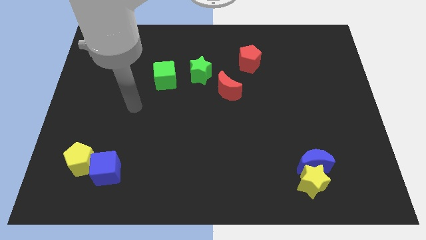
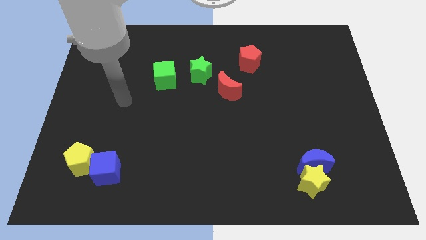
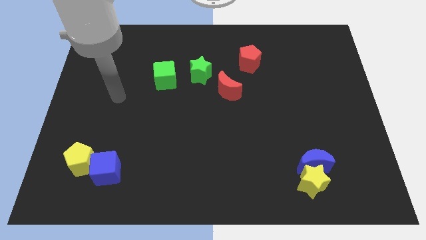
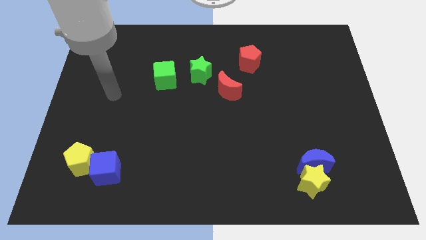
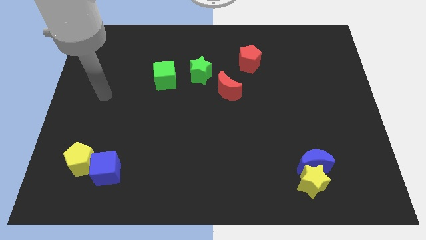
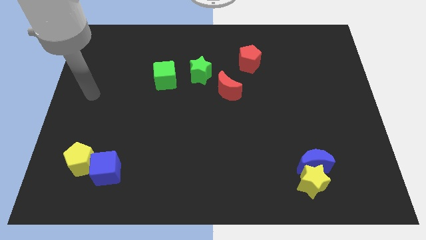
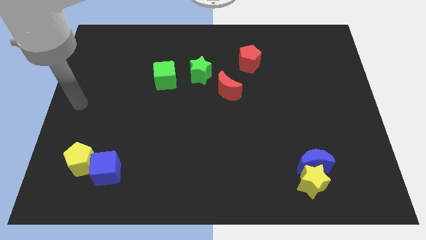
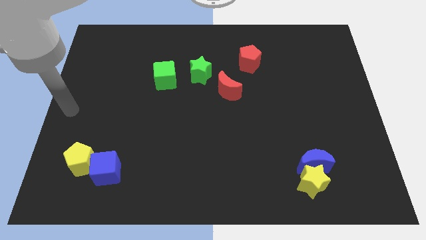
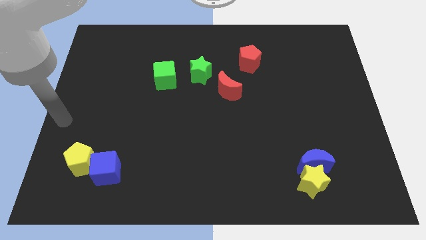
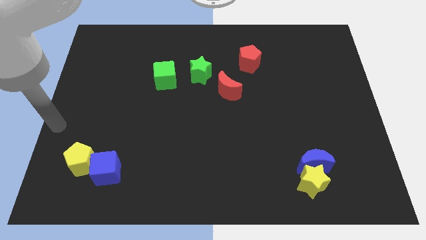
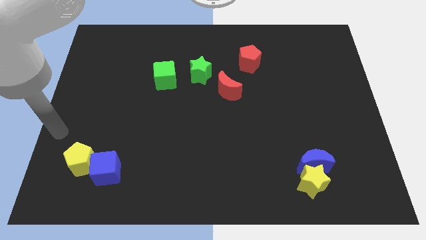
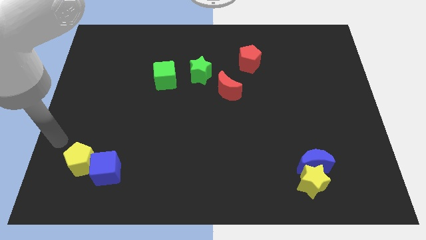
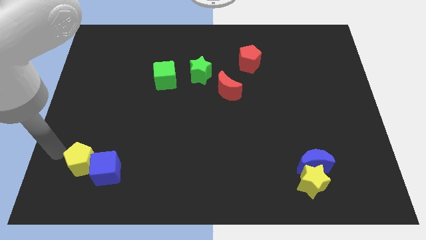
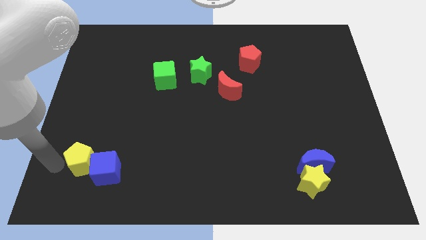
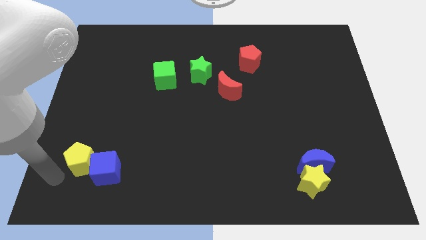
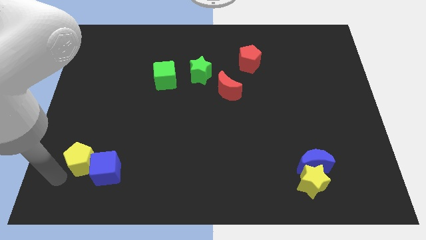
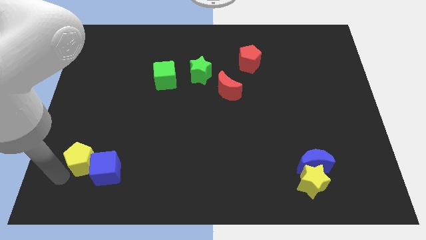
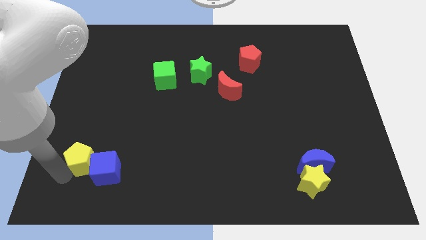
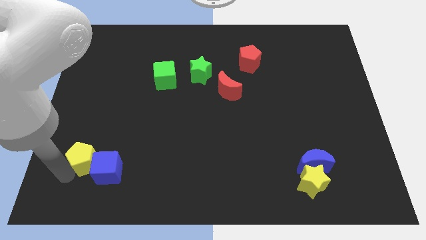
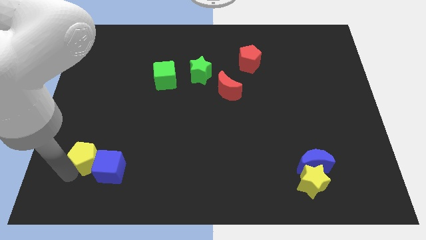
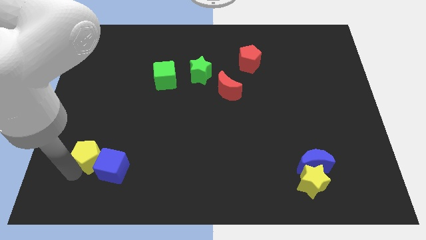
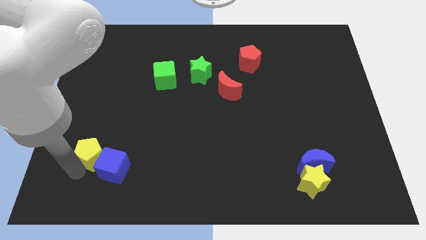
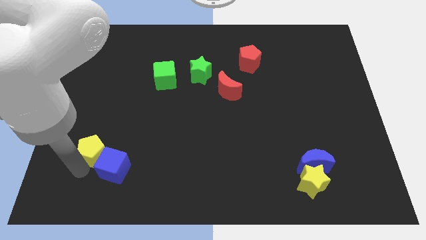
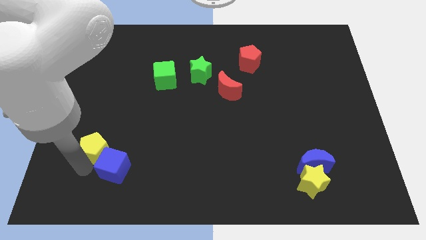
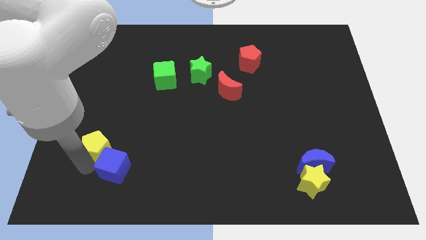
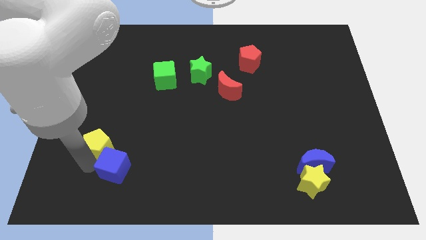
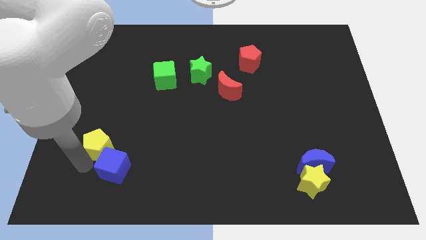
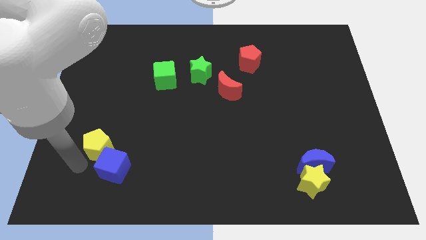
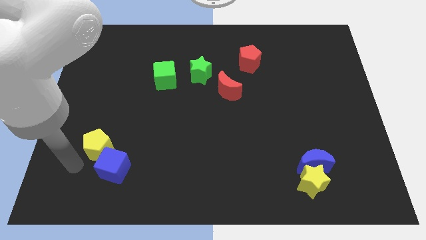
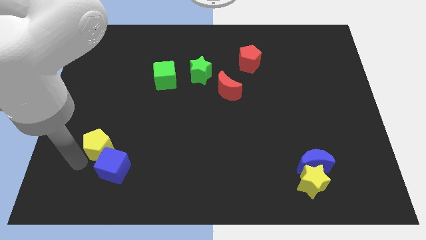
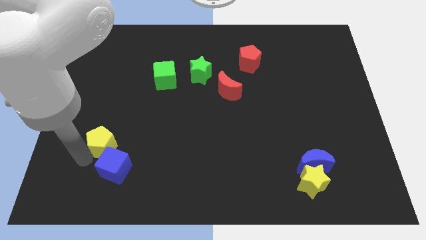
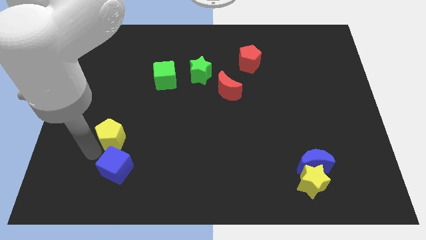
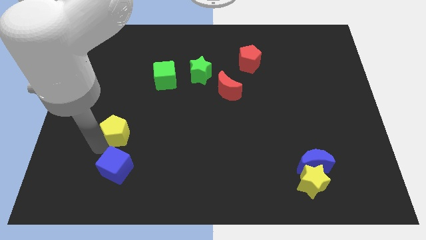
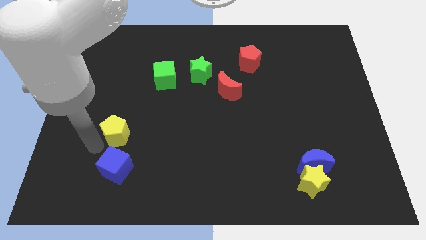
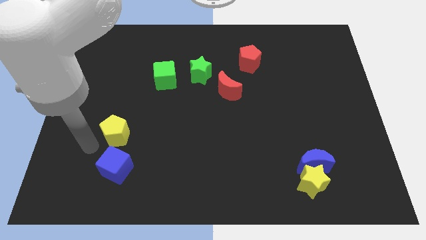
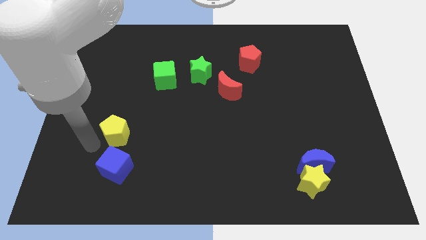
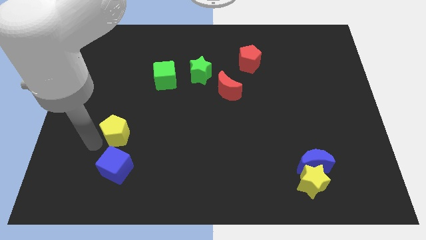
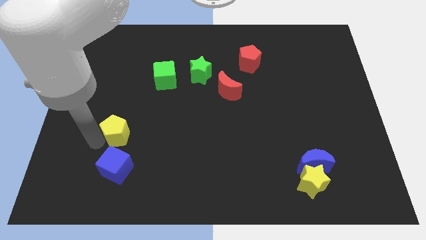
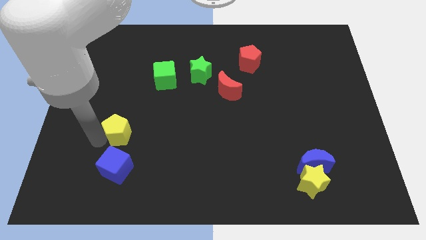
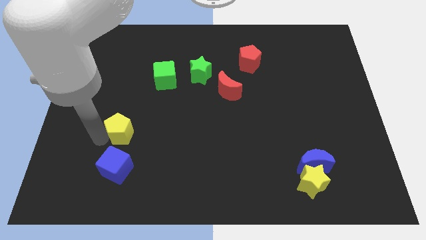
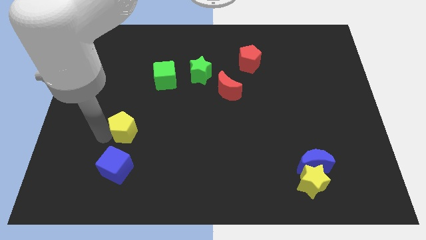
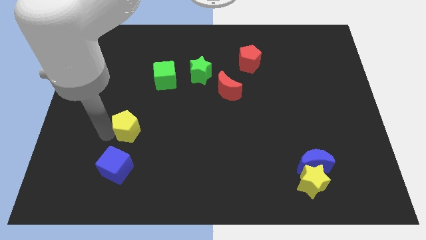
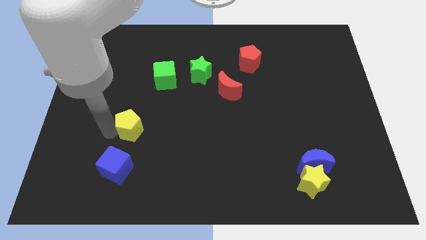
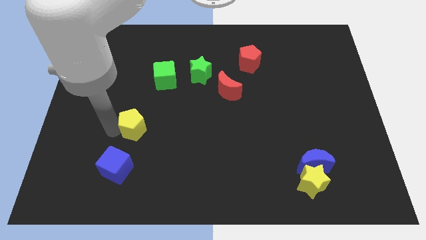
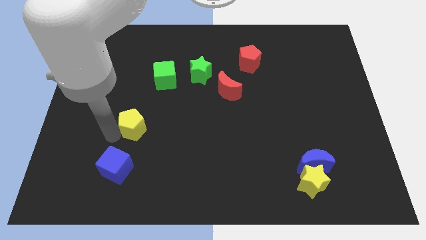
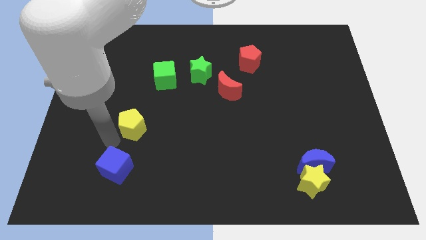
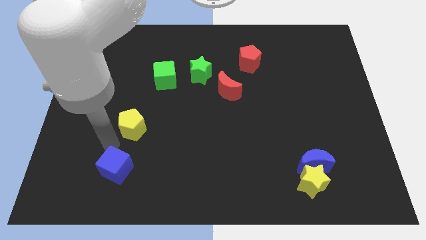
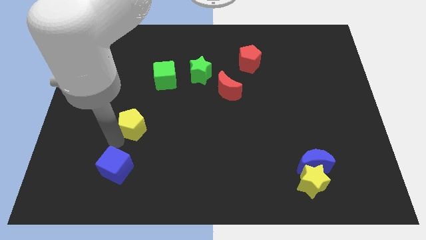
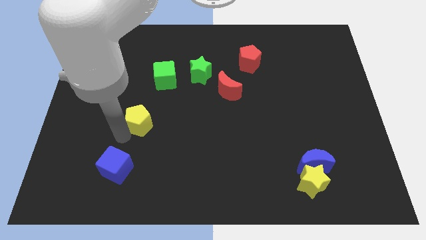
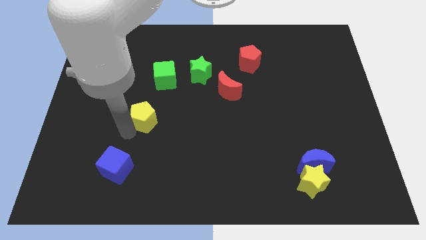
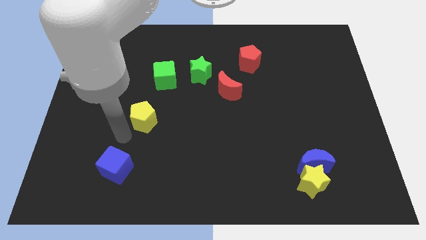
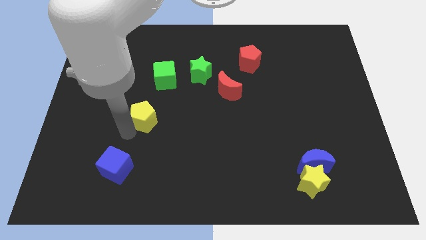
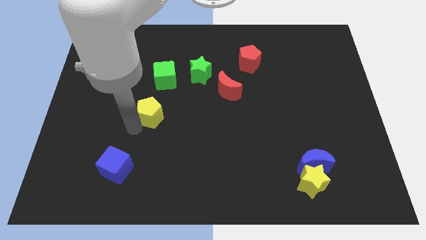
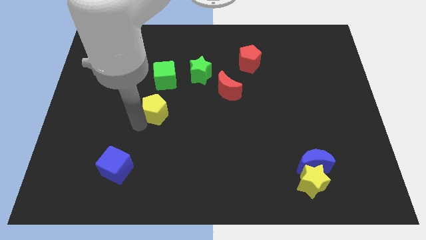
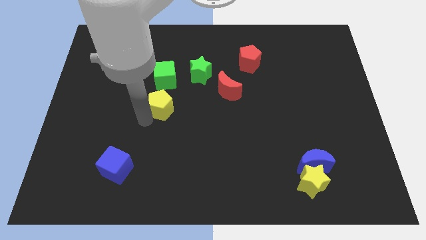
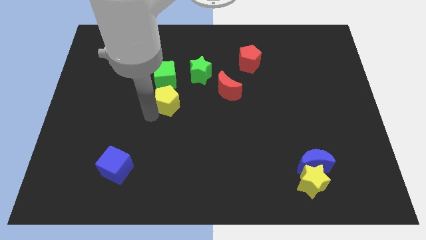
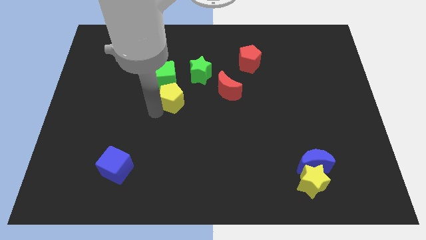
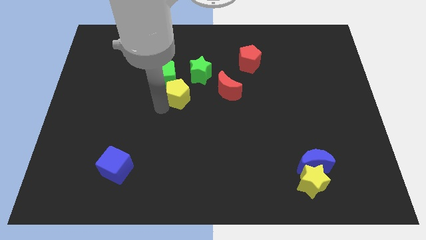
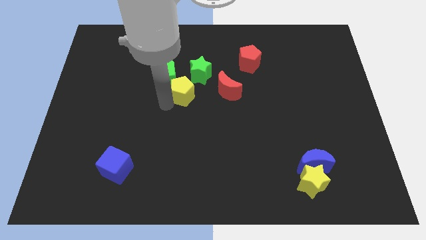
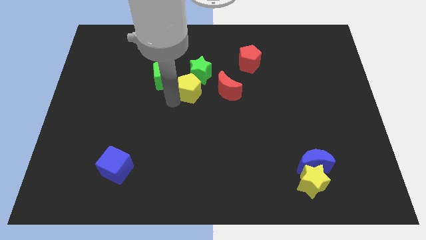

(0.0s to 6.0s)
move the yellow pentagon to the green star
